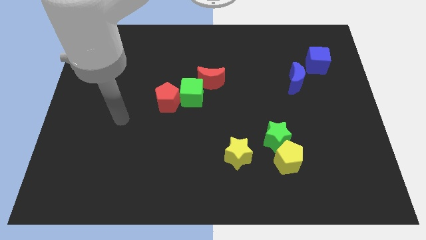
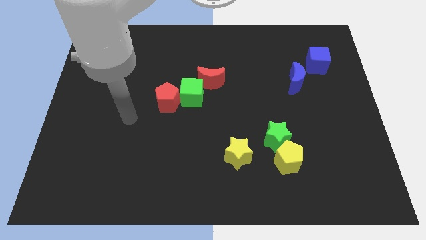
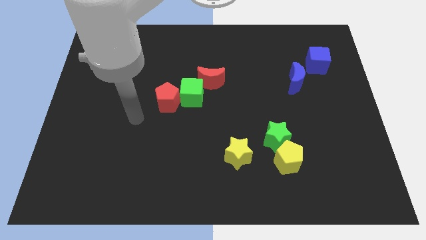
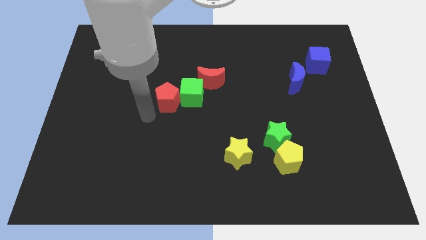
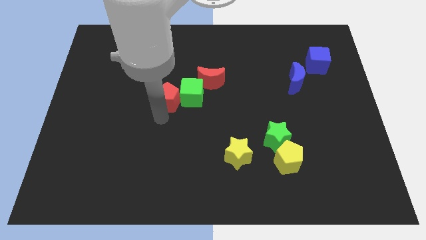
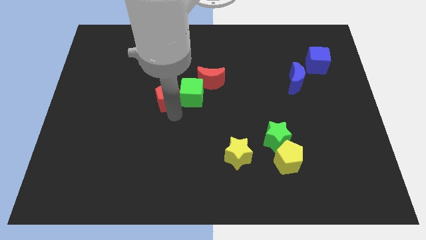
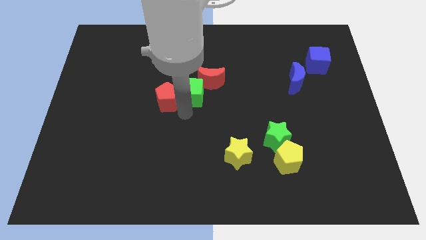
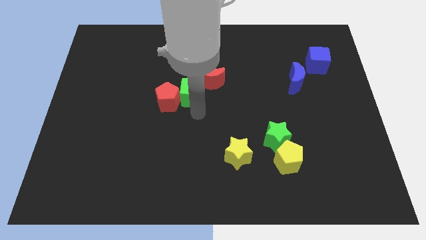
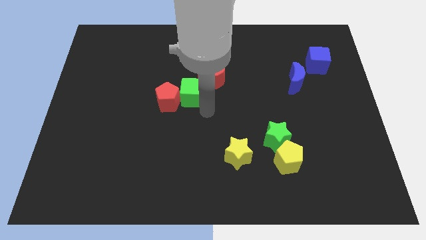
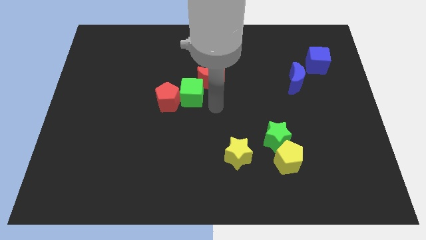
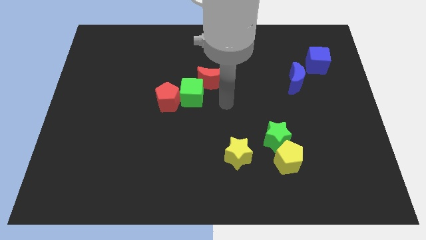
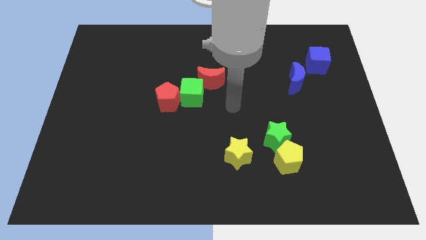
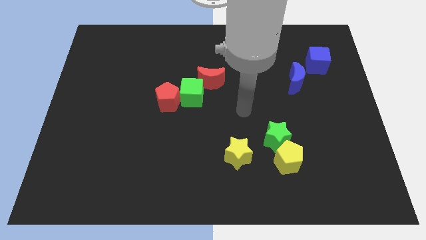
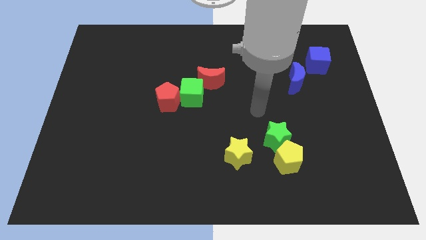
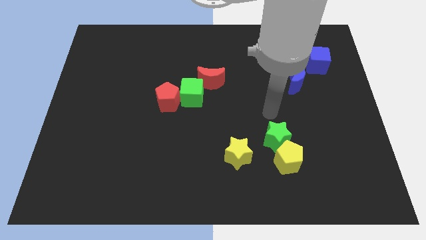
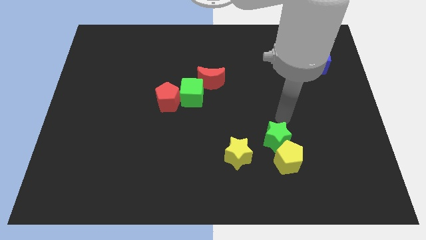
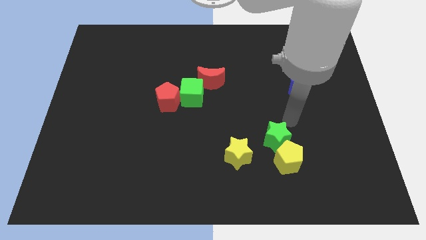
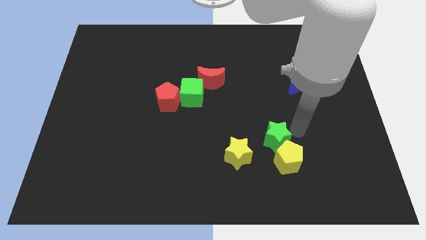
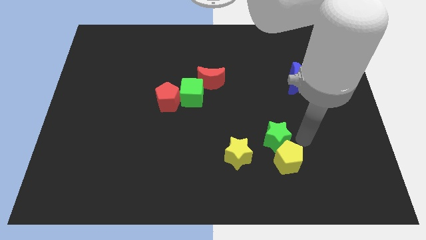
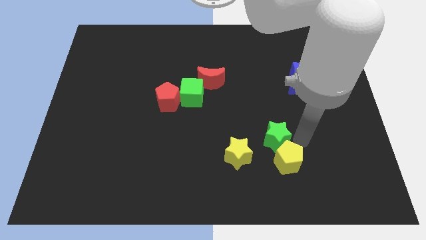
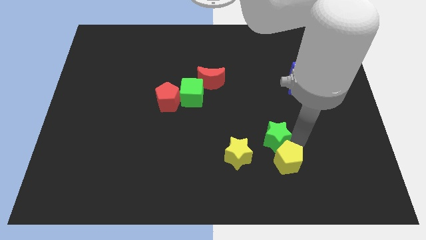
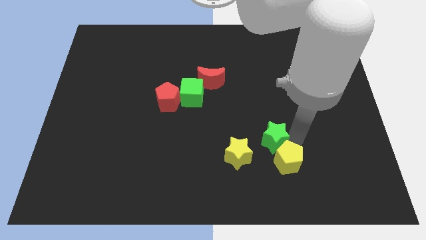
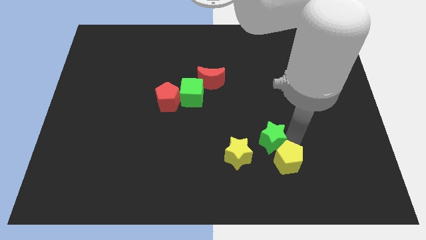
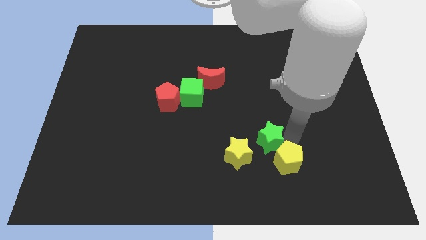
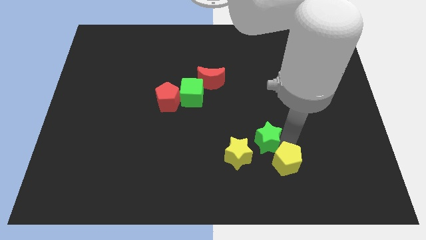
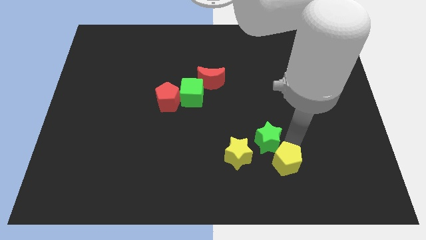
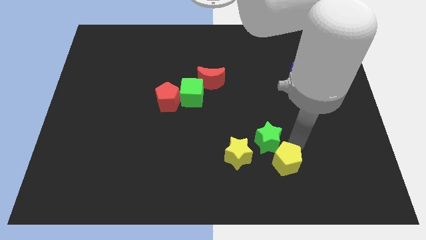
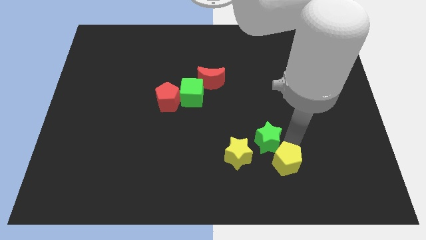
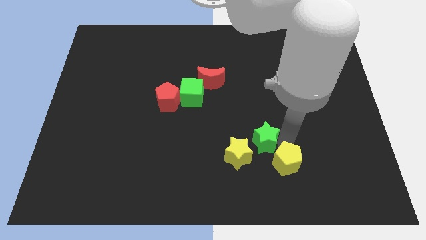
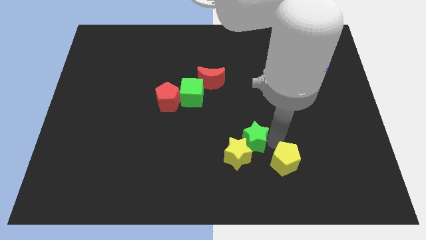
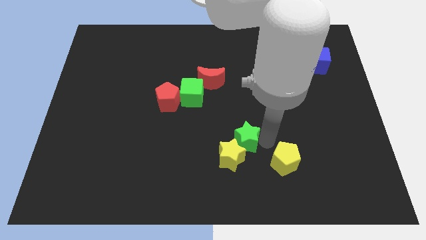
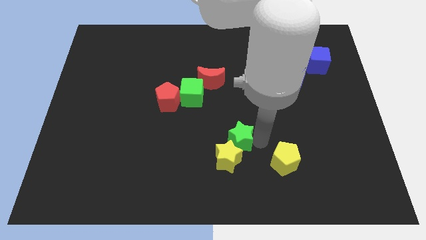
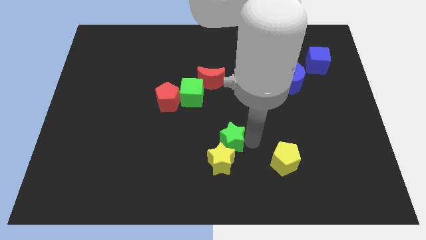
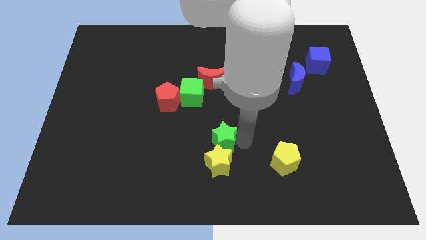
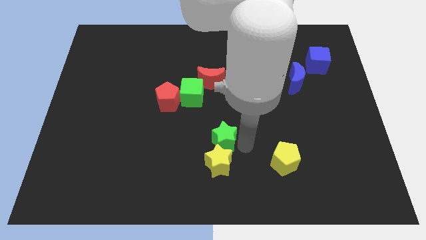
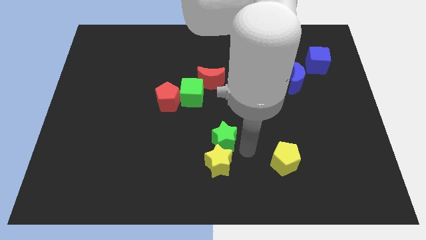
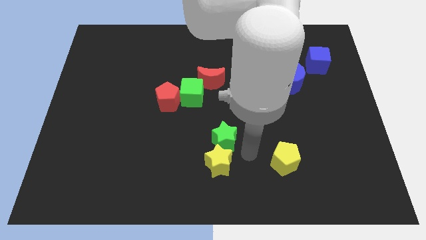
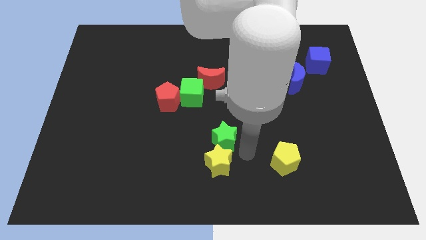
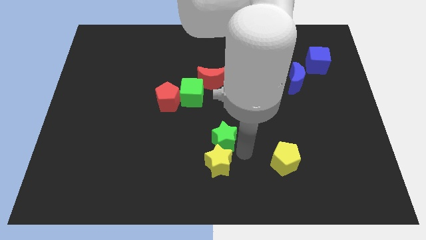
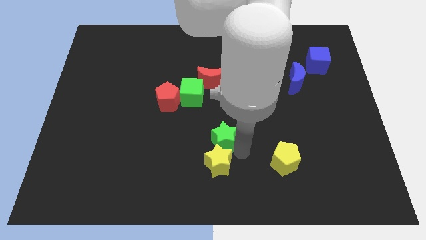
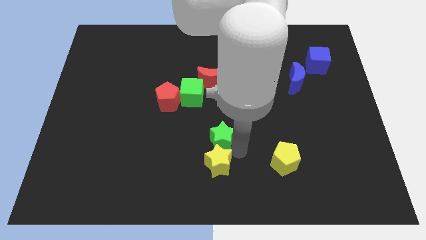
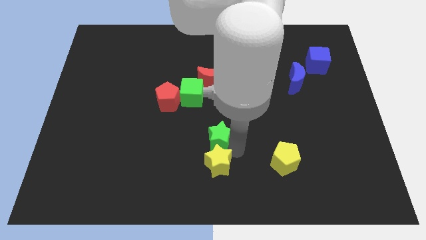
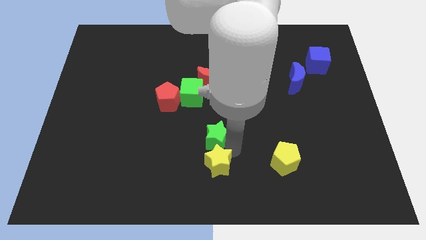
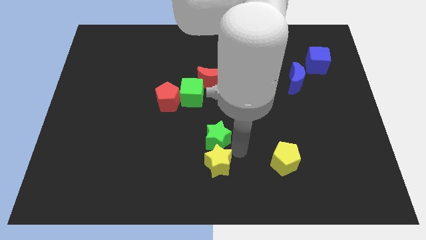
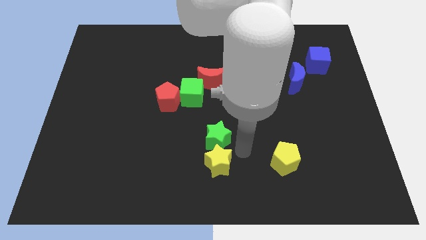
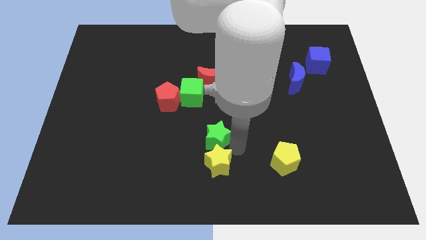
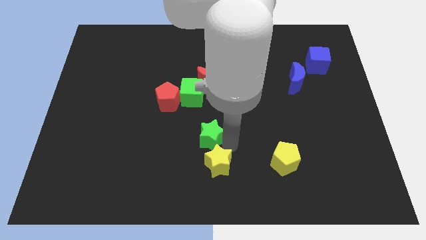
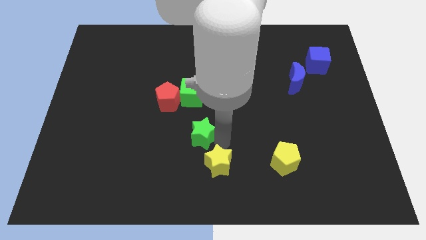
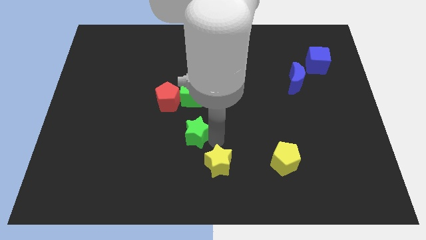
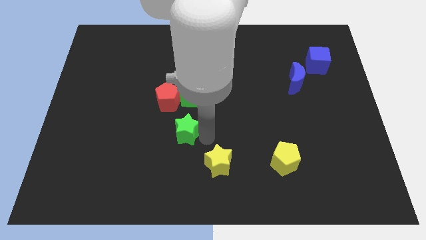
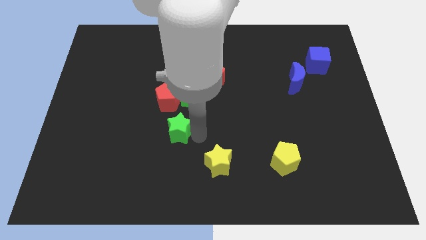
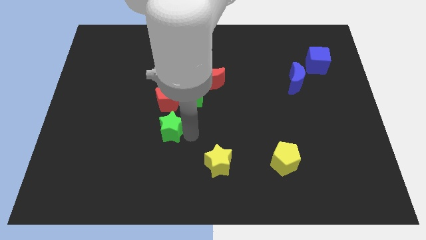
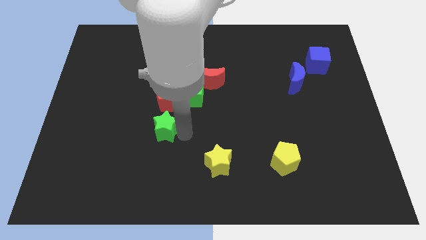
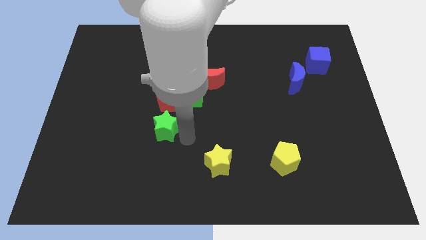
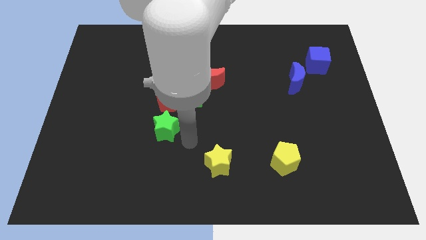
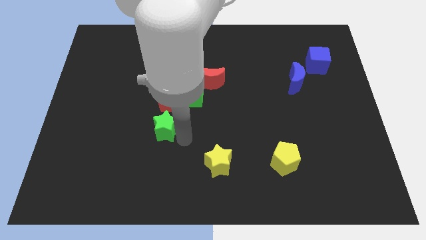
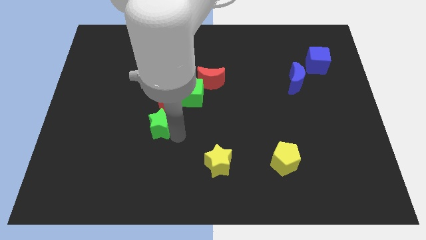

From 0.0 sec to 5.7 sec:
slide the green star to the bottom left of the red pentagon

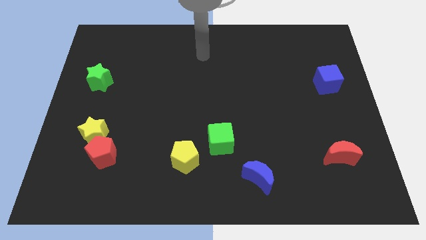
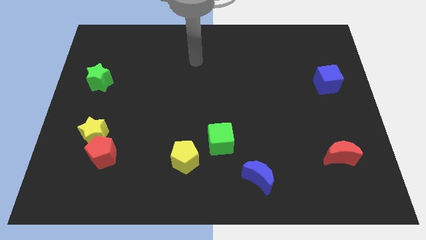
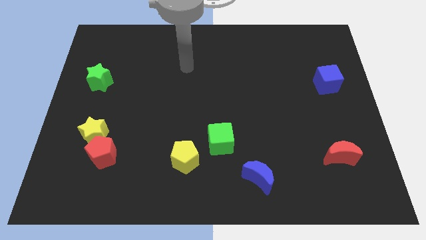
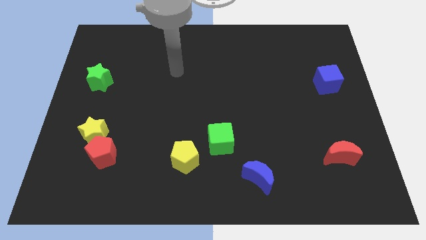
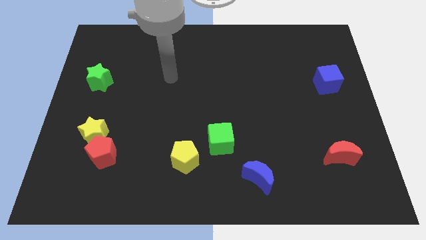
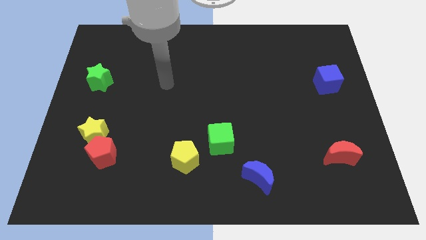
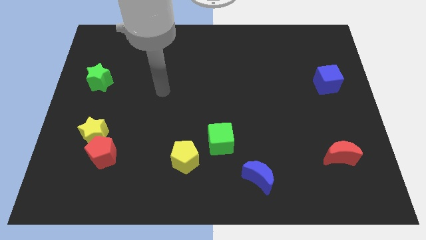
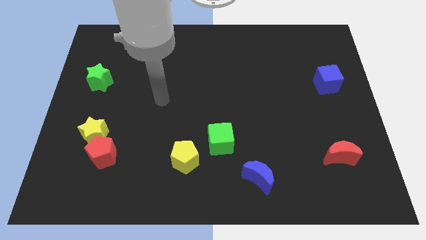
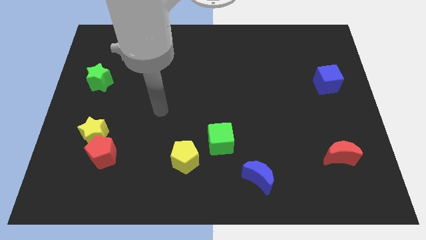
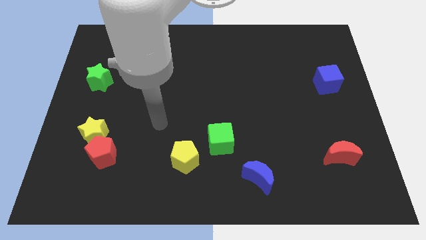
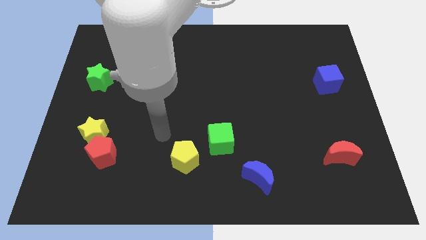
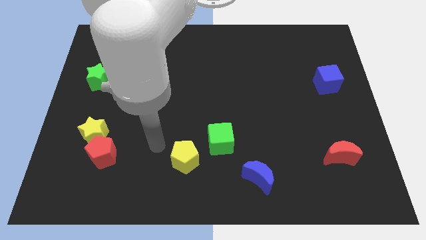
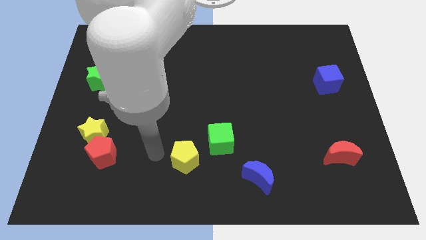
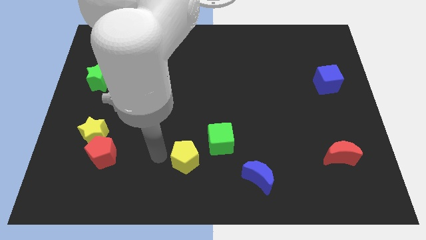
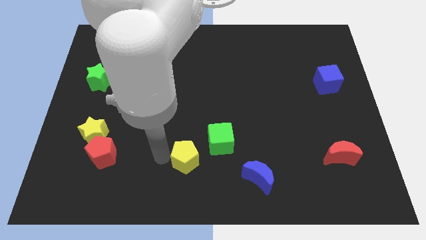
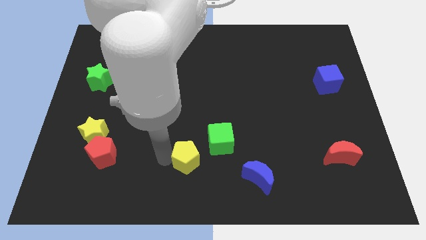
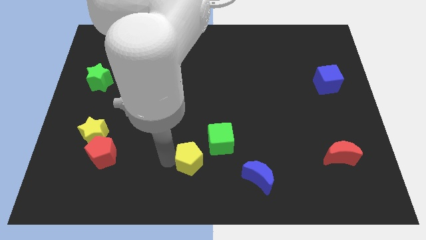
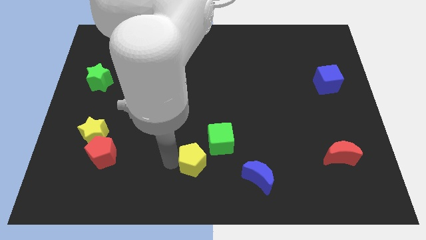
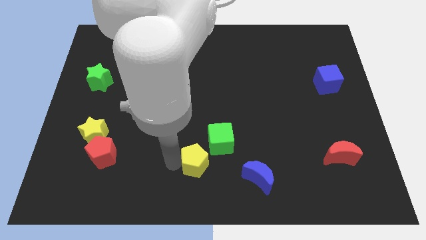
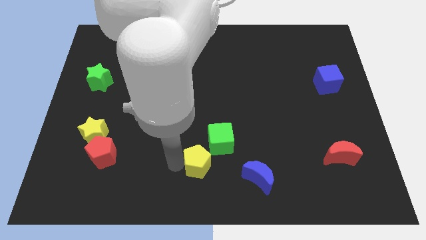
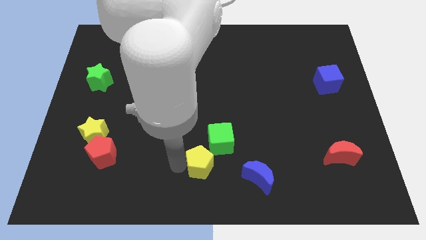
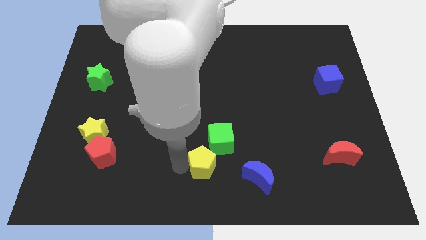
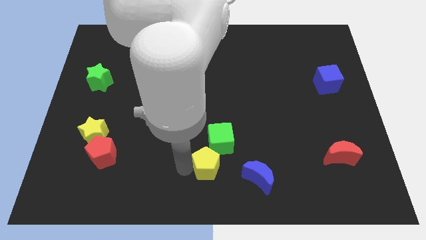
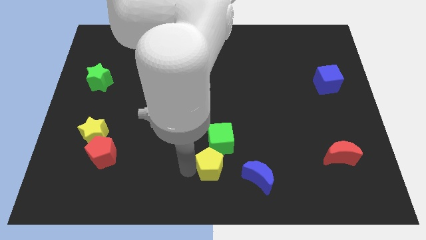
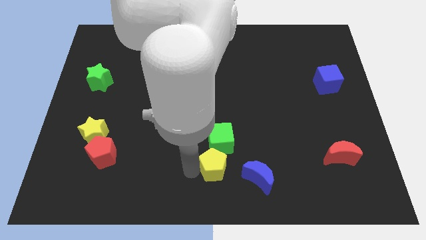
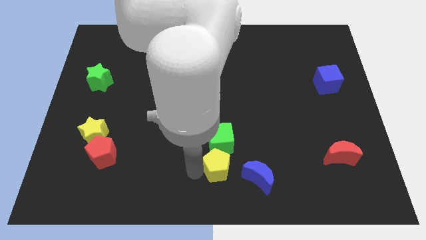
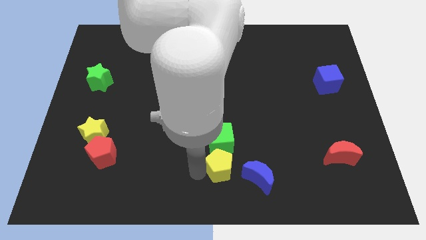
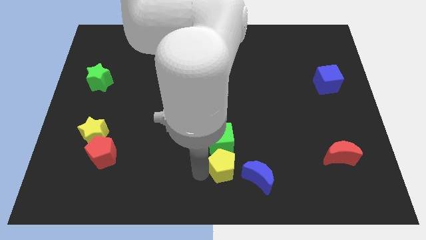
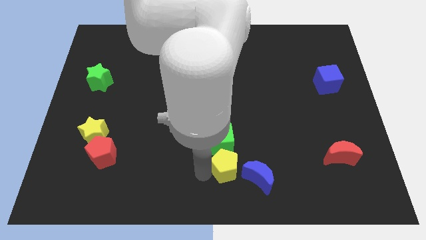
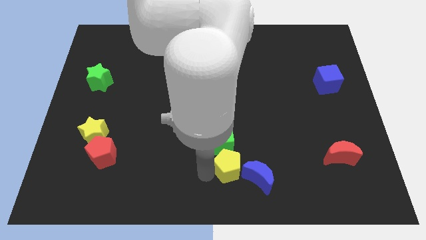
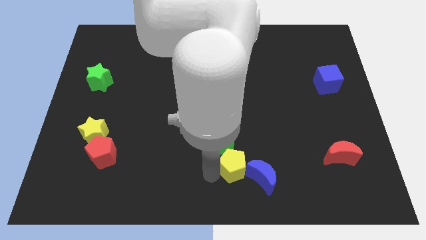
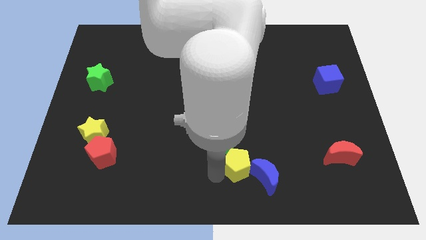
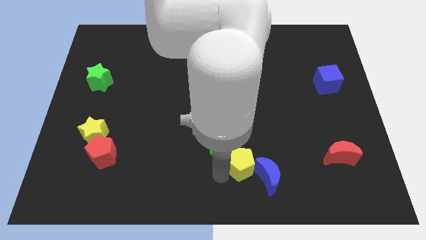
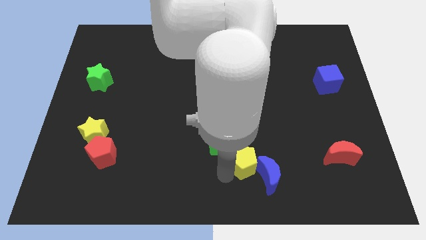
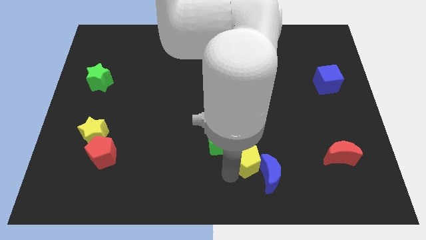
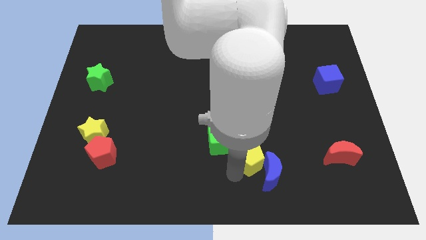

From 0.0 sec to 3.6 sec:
slide the yellow pentagon above the blue moon
